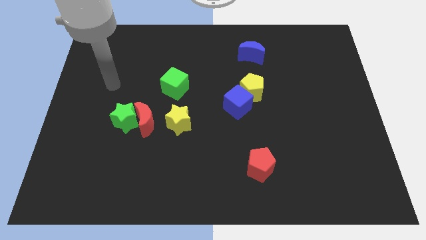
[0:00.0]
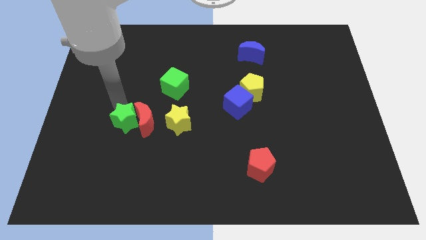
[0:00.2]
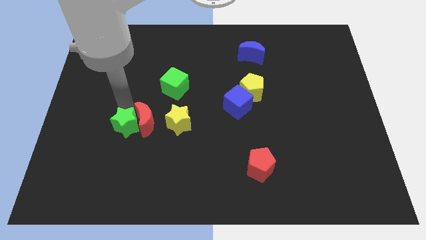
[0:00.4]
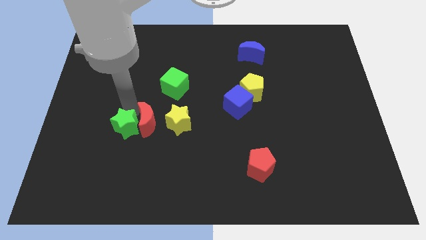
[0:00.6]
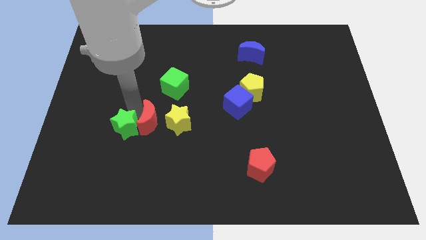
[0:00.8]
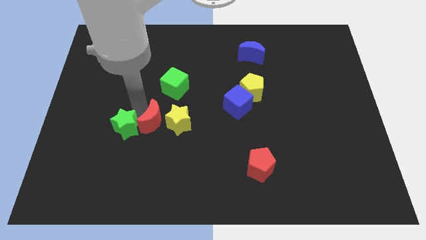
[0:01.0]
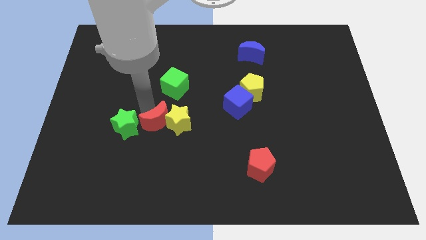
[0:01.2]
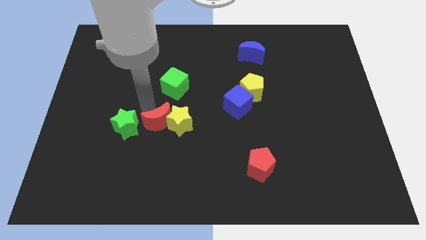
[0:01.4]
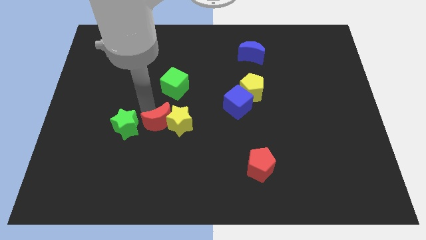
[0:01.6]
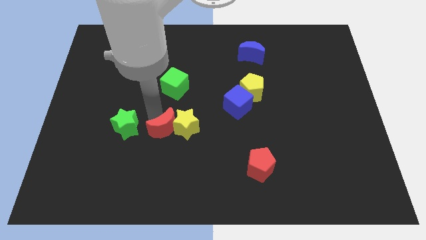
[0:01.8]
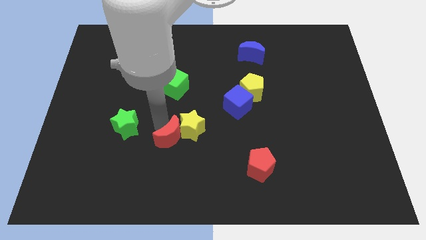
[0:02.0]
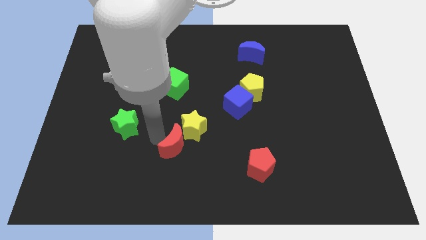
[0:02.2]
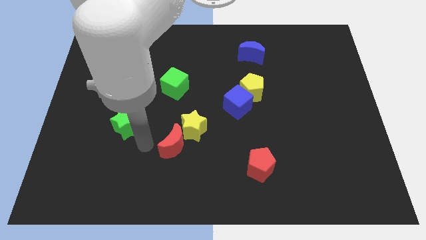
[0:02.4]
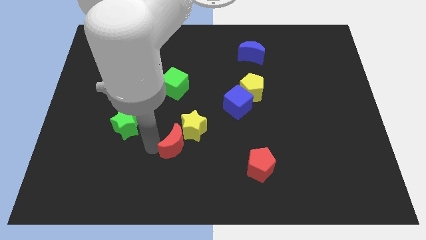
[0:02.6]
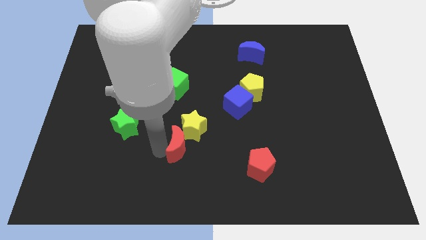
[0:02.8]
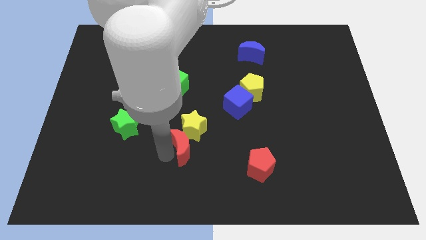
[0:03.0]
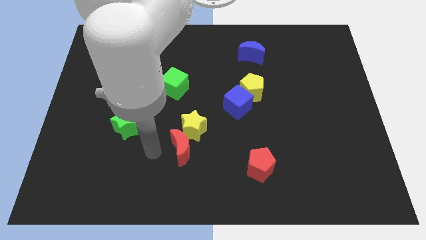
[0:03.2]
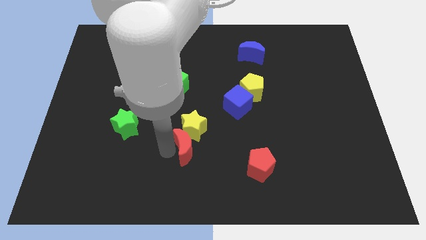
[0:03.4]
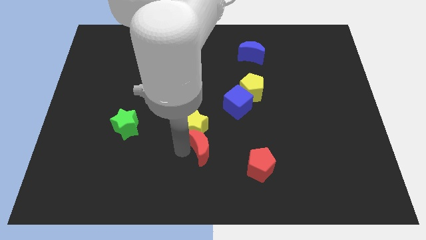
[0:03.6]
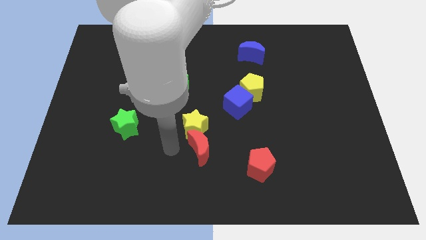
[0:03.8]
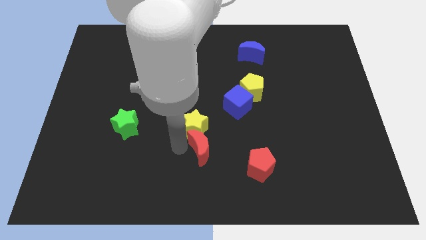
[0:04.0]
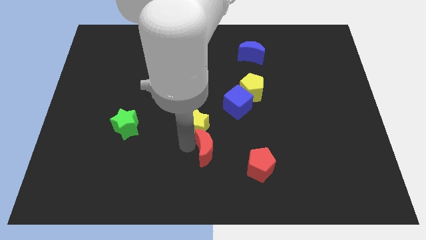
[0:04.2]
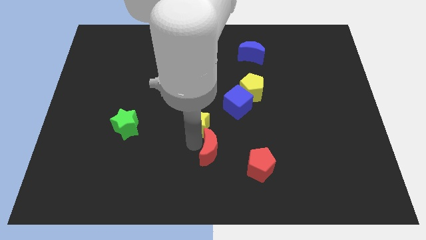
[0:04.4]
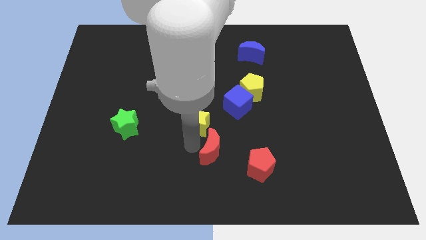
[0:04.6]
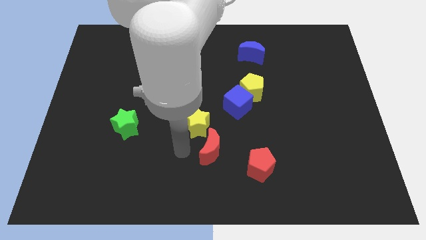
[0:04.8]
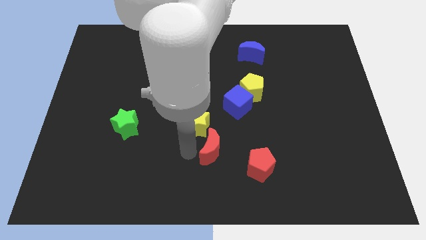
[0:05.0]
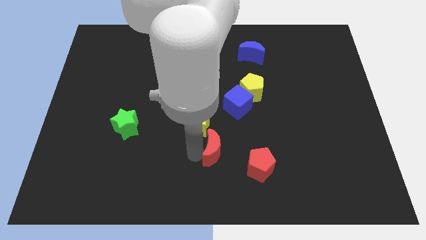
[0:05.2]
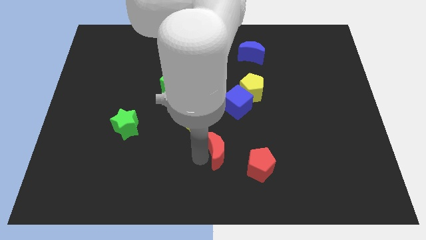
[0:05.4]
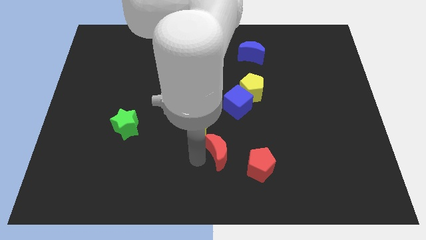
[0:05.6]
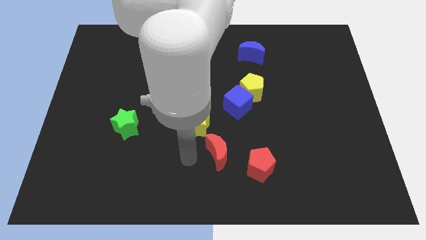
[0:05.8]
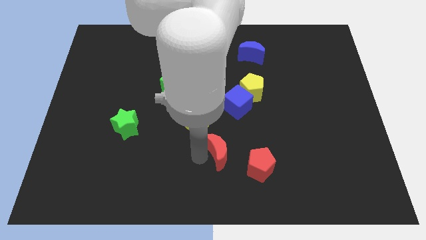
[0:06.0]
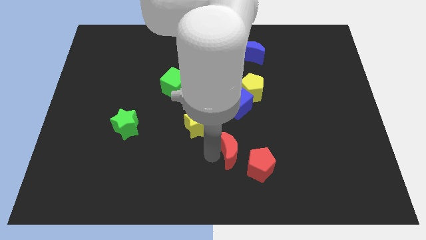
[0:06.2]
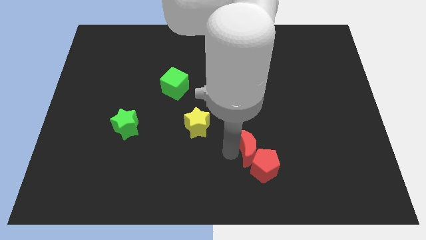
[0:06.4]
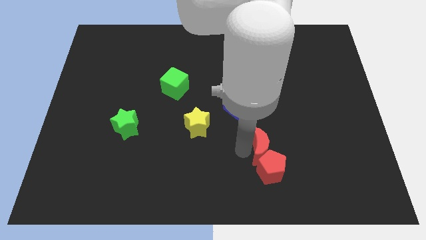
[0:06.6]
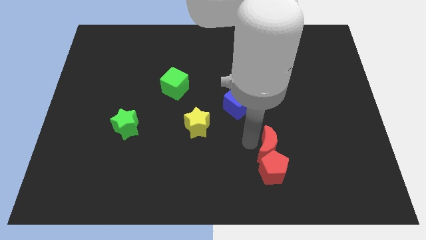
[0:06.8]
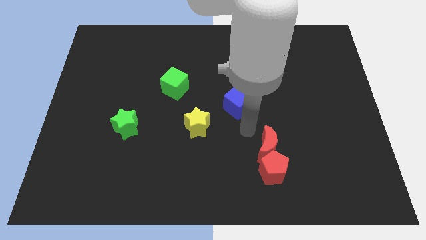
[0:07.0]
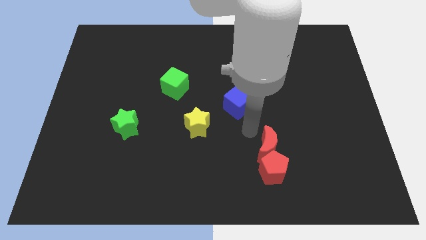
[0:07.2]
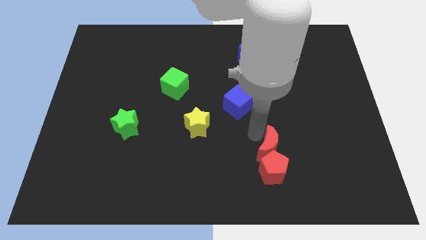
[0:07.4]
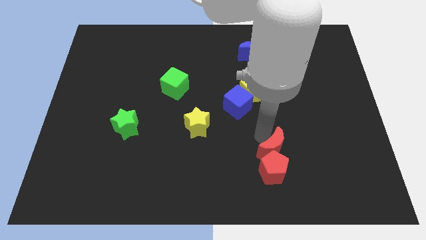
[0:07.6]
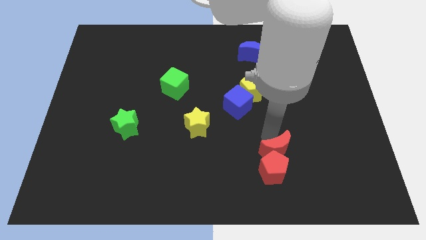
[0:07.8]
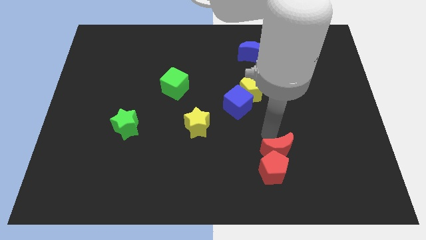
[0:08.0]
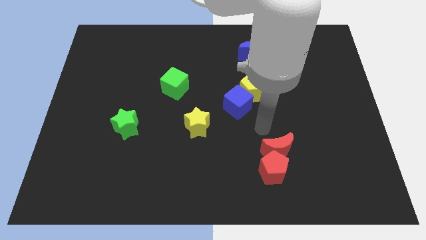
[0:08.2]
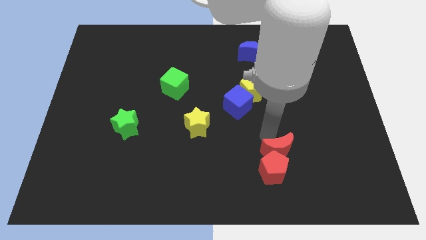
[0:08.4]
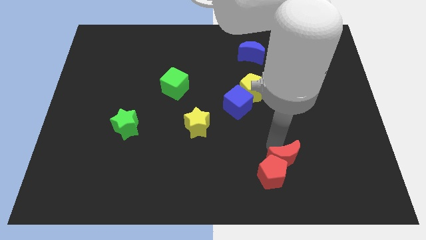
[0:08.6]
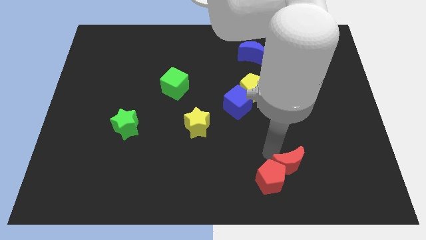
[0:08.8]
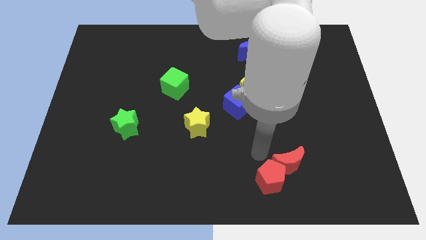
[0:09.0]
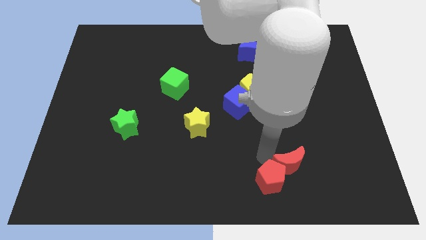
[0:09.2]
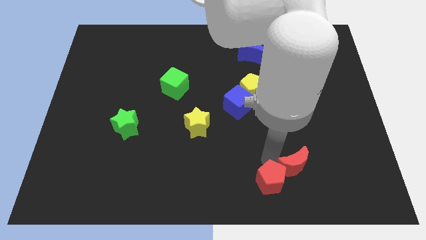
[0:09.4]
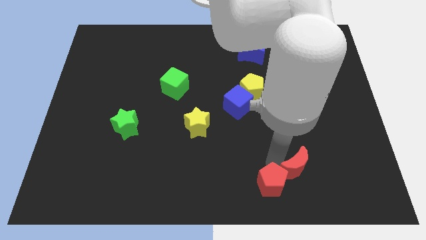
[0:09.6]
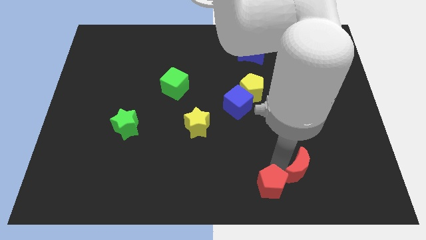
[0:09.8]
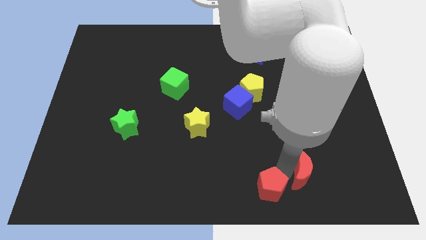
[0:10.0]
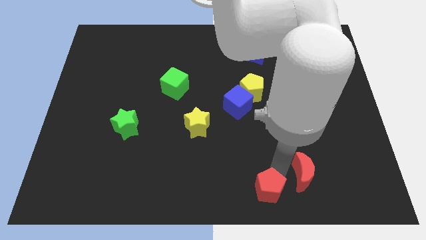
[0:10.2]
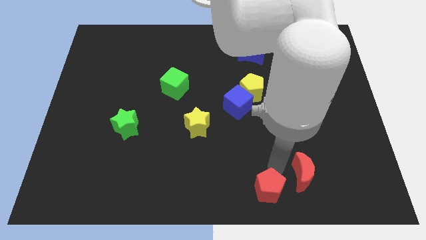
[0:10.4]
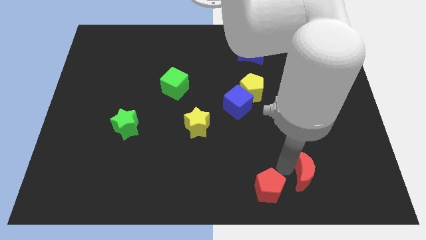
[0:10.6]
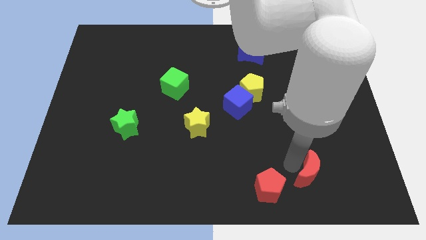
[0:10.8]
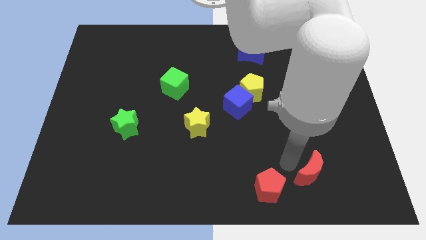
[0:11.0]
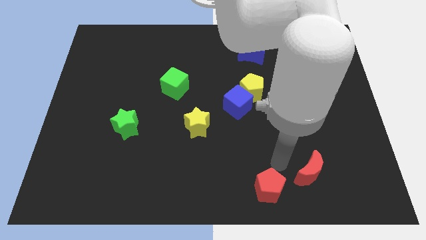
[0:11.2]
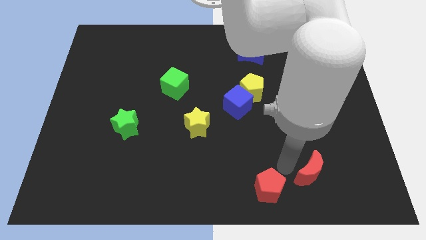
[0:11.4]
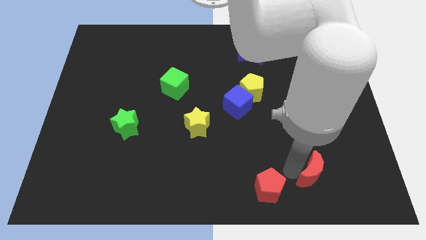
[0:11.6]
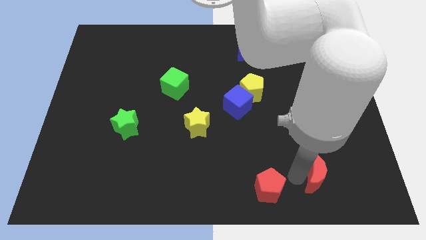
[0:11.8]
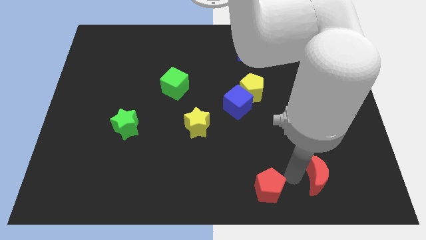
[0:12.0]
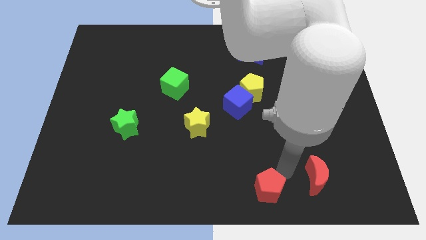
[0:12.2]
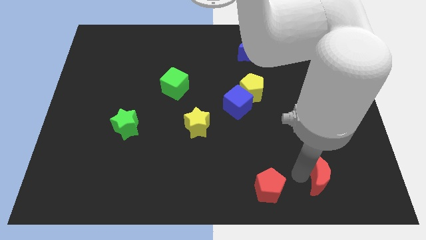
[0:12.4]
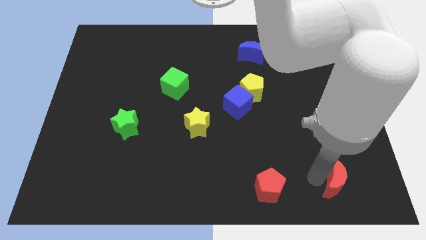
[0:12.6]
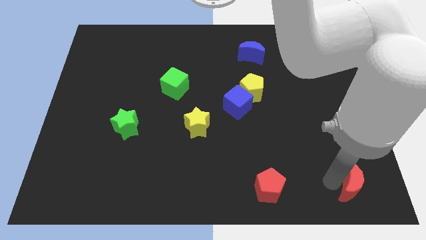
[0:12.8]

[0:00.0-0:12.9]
push the red moon to the bottom right of the board
